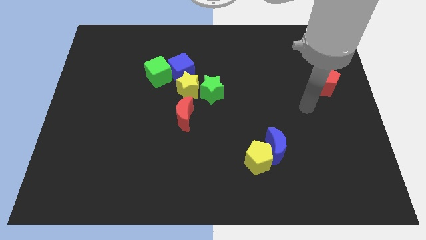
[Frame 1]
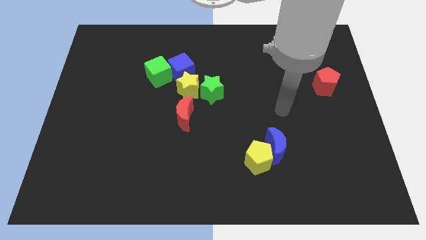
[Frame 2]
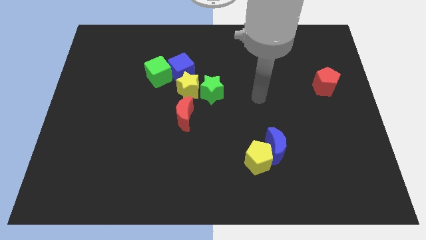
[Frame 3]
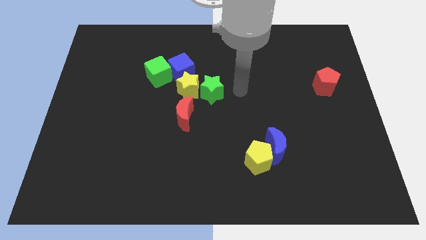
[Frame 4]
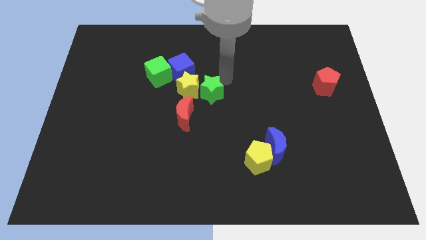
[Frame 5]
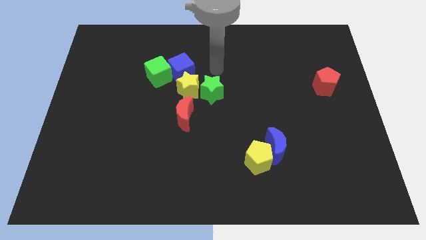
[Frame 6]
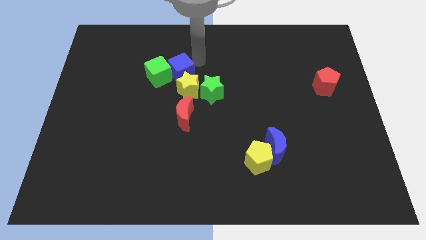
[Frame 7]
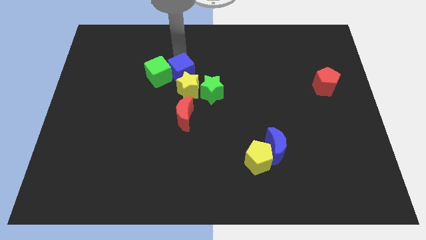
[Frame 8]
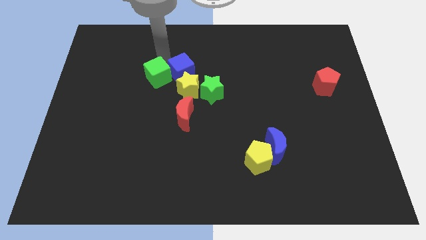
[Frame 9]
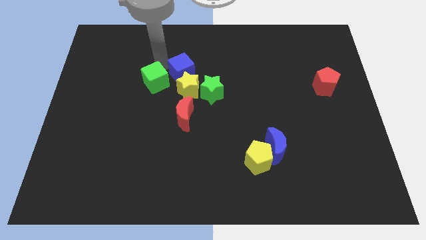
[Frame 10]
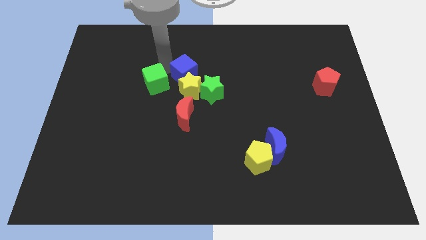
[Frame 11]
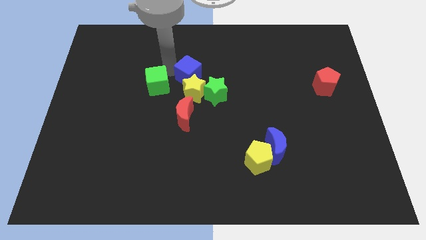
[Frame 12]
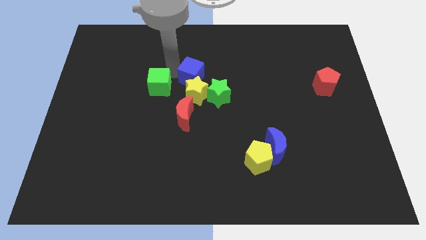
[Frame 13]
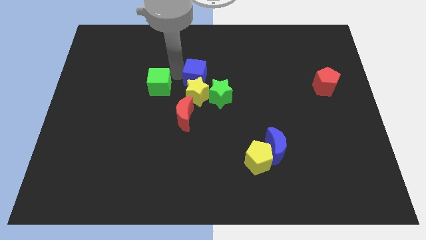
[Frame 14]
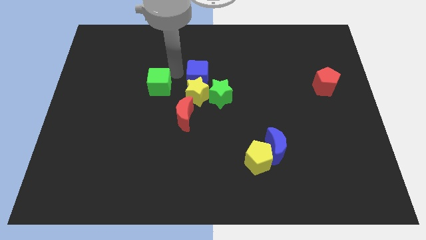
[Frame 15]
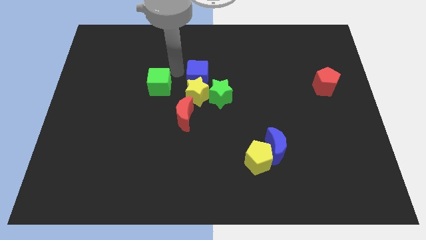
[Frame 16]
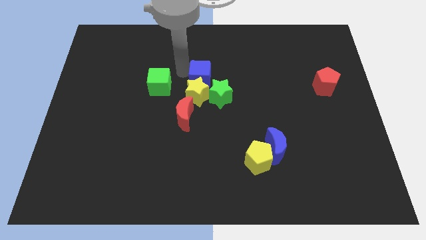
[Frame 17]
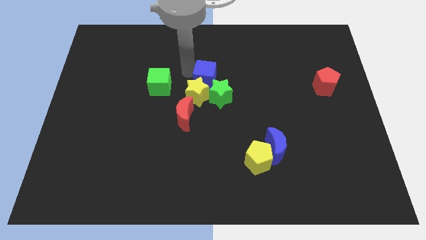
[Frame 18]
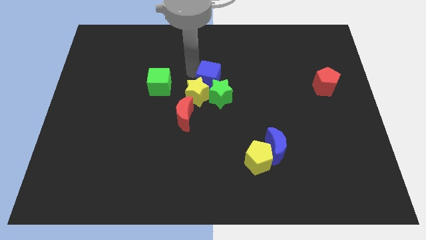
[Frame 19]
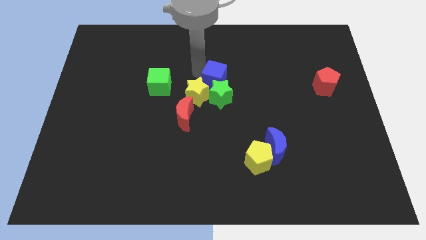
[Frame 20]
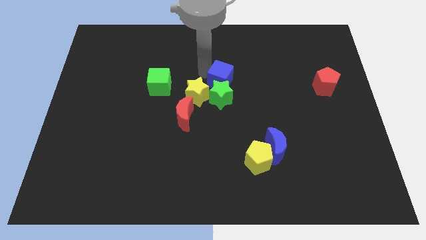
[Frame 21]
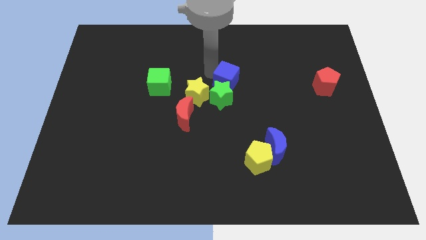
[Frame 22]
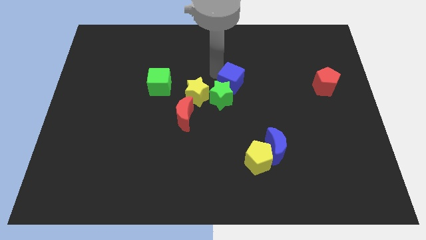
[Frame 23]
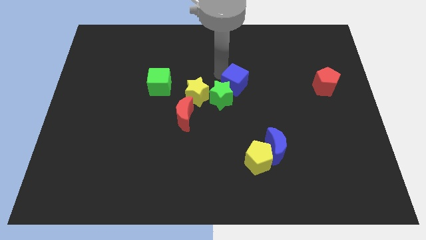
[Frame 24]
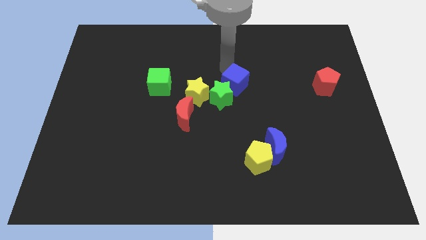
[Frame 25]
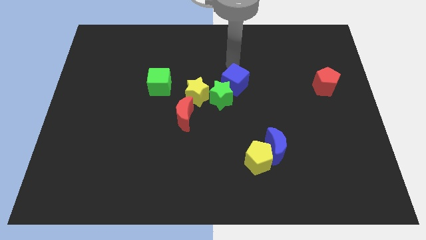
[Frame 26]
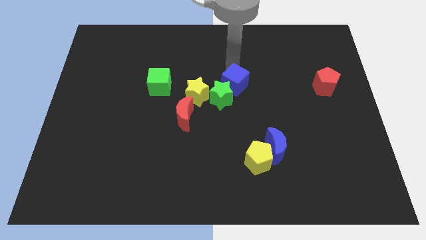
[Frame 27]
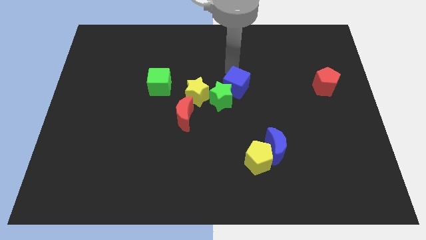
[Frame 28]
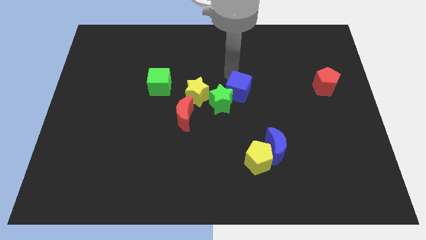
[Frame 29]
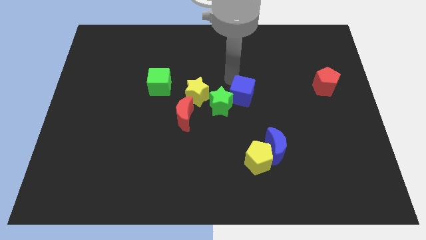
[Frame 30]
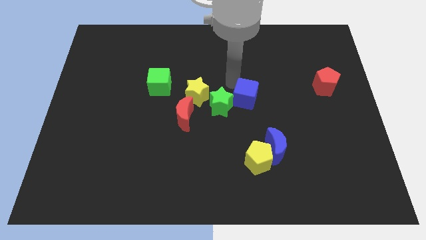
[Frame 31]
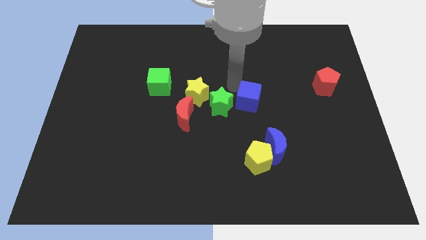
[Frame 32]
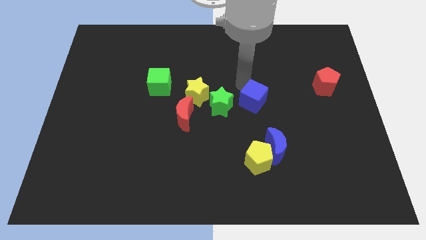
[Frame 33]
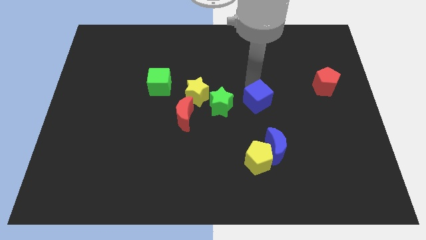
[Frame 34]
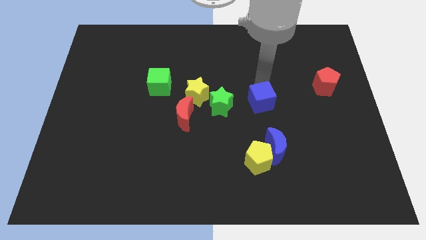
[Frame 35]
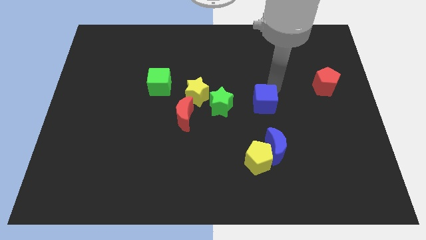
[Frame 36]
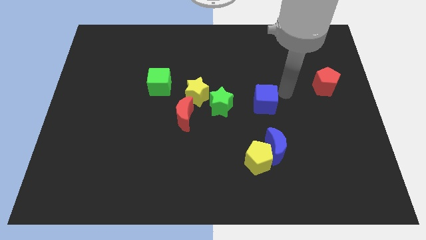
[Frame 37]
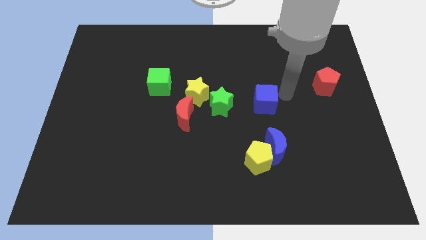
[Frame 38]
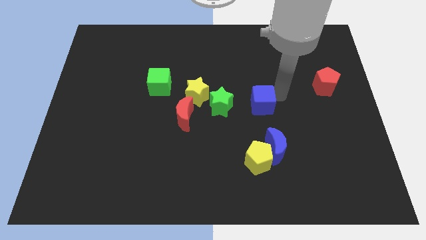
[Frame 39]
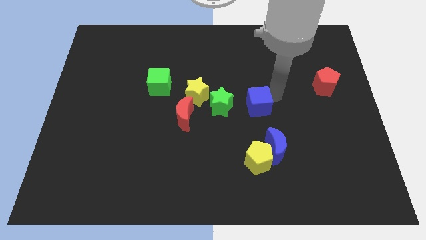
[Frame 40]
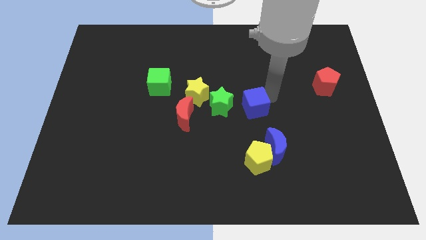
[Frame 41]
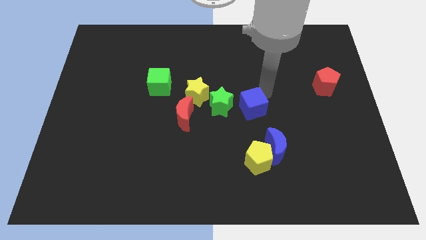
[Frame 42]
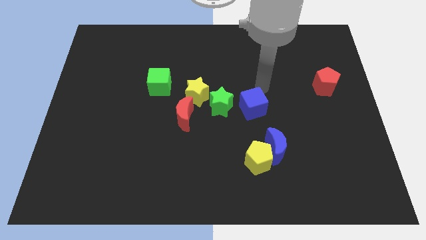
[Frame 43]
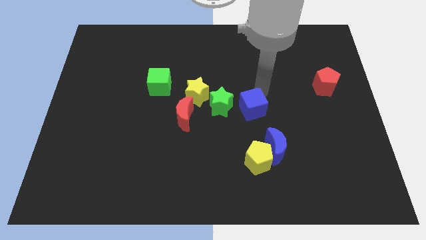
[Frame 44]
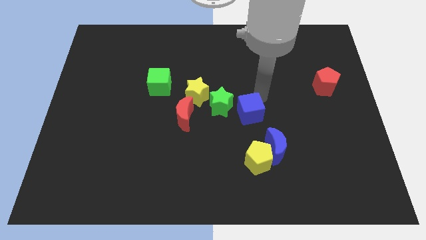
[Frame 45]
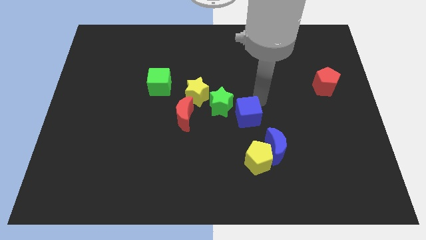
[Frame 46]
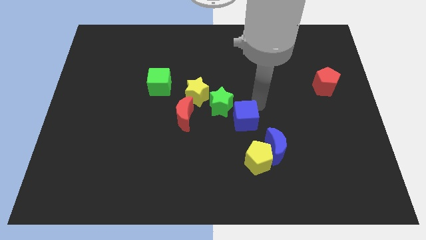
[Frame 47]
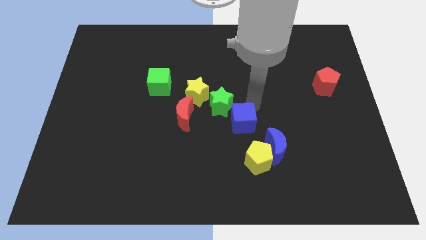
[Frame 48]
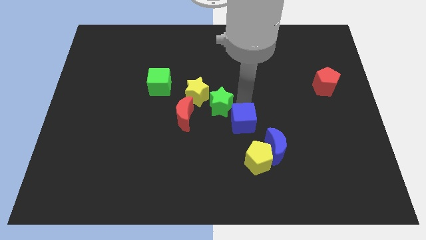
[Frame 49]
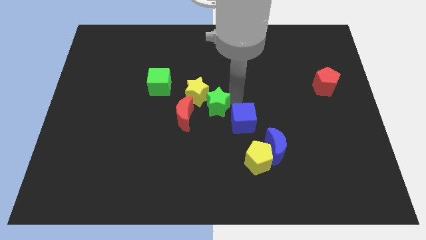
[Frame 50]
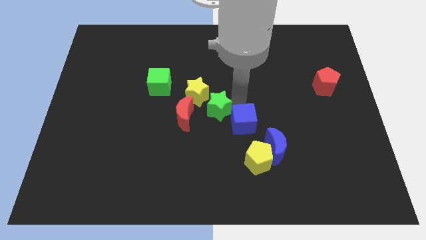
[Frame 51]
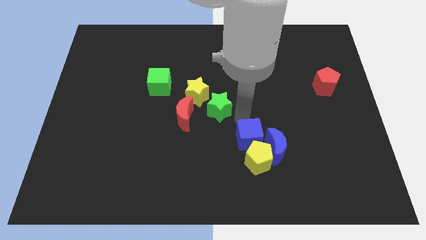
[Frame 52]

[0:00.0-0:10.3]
push the blue cube to the yellow pentagon

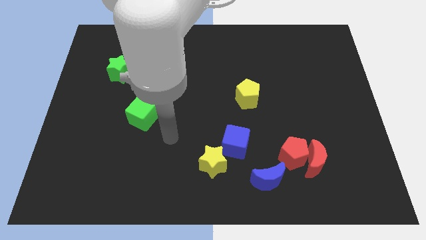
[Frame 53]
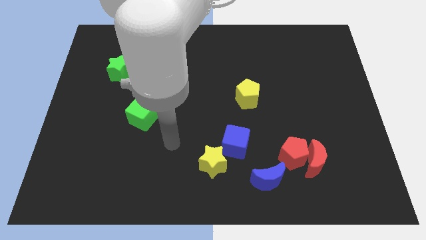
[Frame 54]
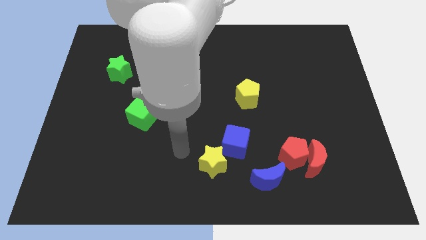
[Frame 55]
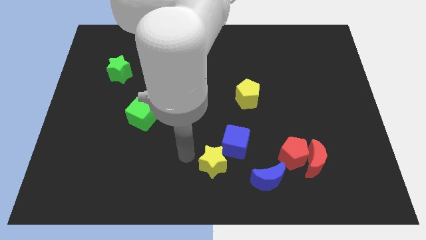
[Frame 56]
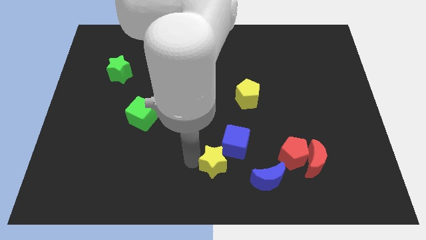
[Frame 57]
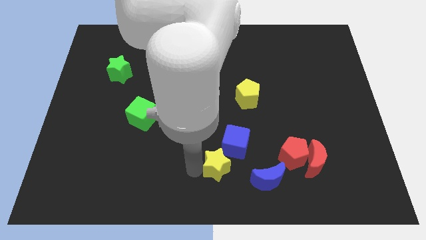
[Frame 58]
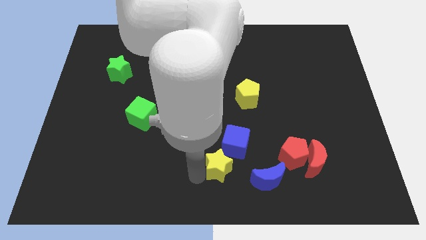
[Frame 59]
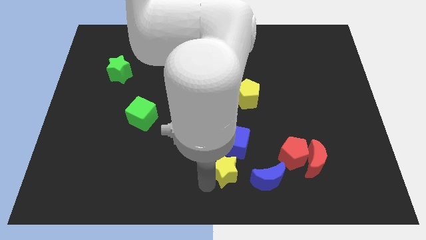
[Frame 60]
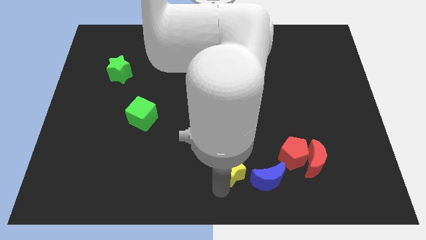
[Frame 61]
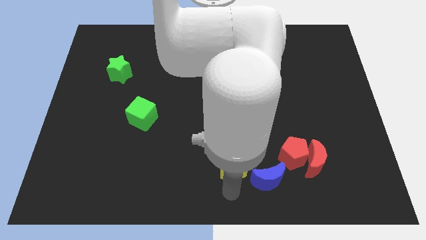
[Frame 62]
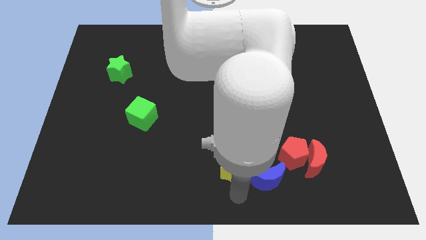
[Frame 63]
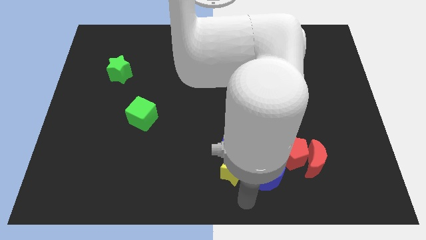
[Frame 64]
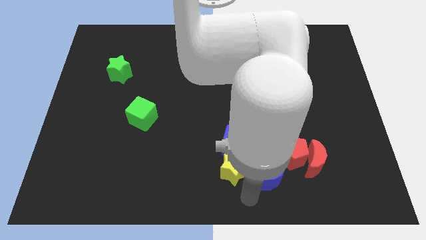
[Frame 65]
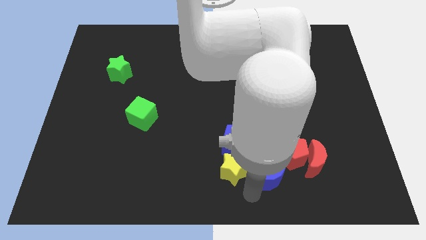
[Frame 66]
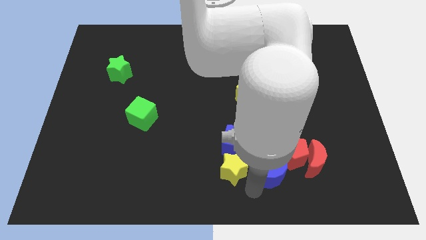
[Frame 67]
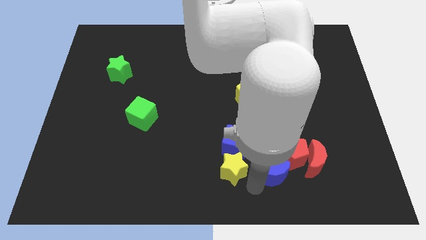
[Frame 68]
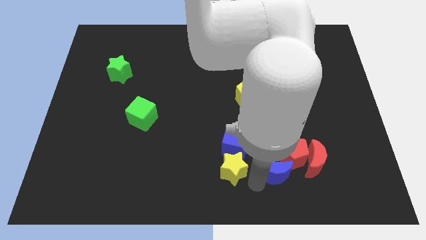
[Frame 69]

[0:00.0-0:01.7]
push the blue moon close to the red pentagon

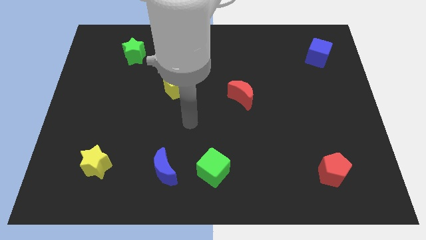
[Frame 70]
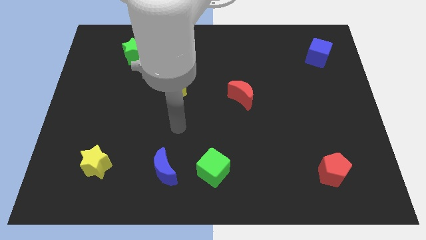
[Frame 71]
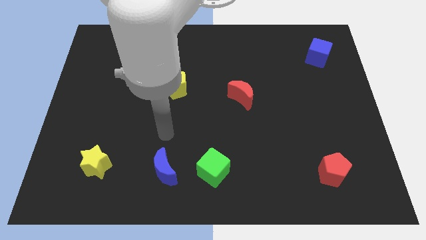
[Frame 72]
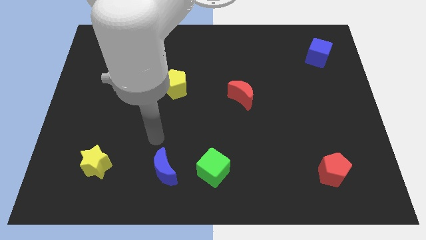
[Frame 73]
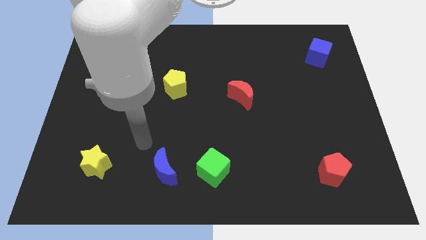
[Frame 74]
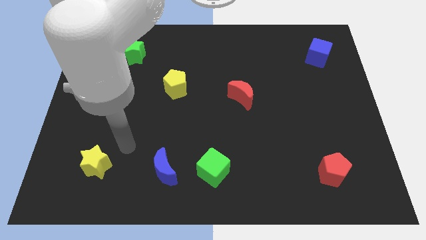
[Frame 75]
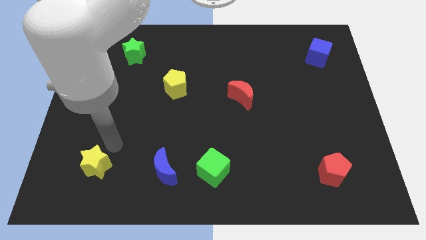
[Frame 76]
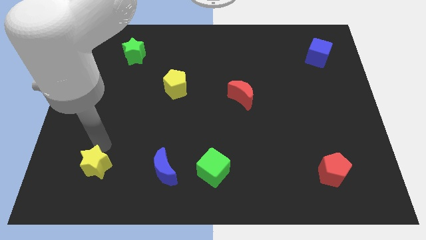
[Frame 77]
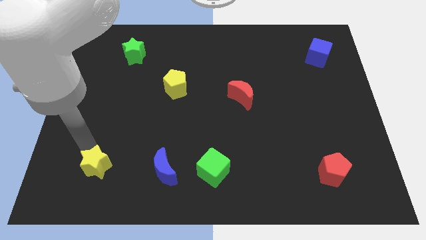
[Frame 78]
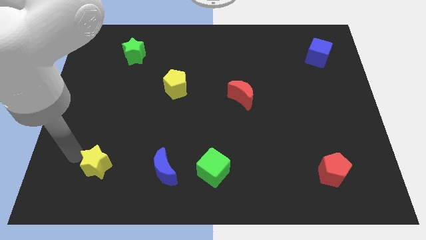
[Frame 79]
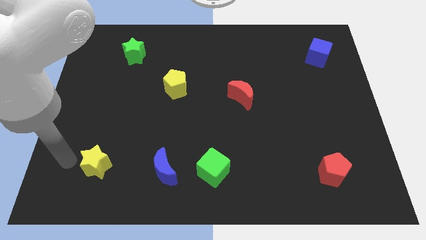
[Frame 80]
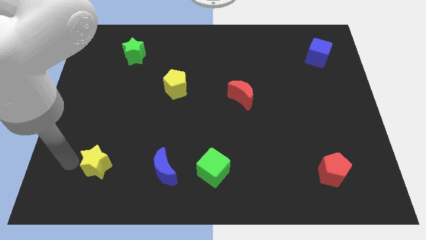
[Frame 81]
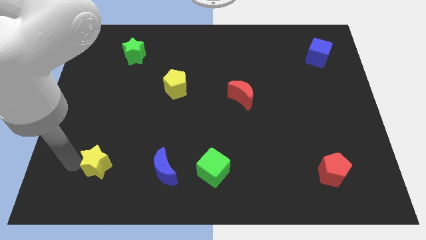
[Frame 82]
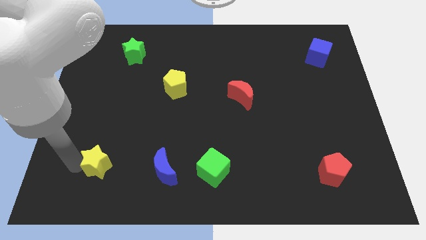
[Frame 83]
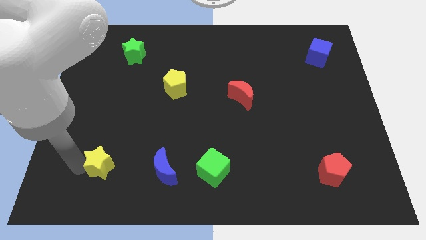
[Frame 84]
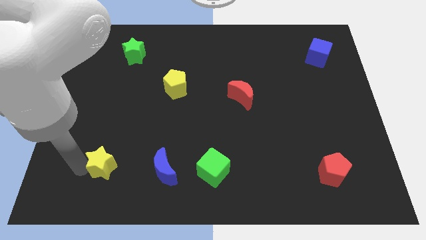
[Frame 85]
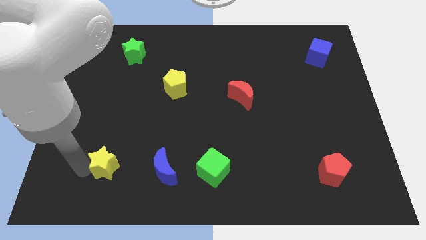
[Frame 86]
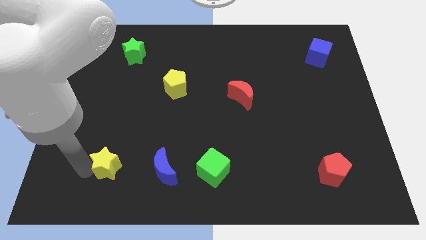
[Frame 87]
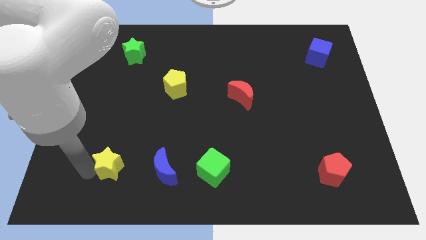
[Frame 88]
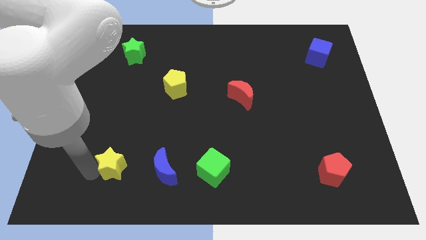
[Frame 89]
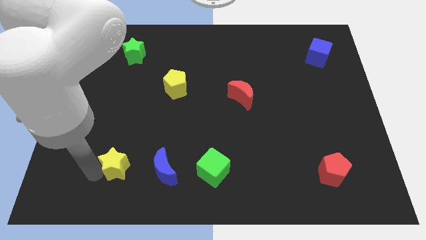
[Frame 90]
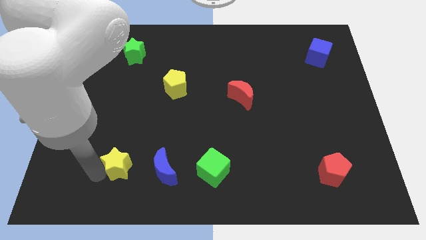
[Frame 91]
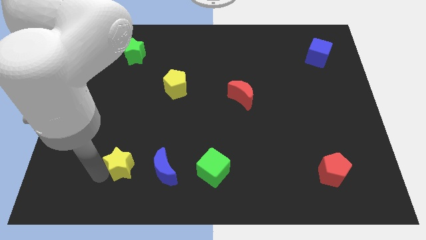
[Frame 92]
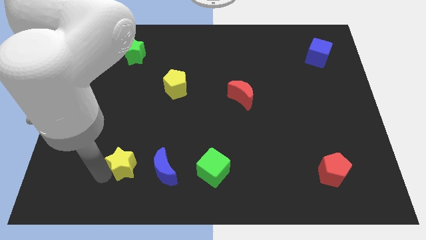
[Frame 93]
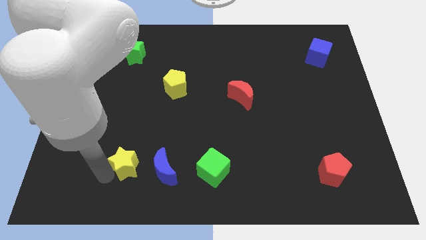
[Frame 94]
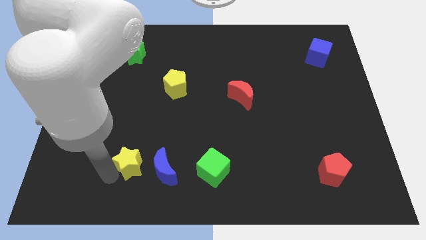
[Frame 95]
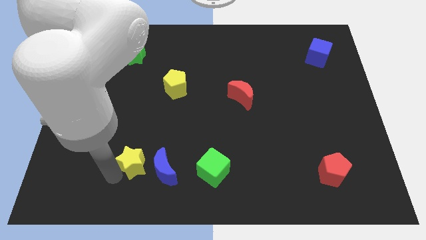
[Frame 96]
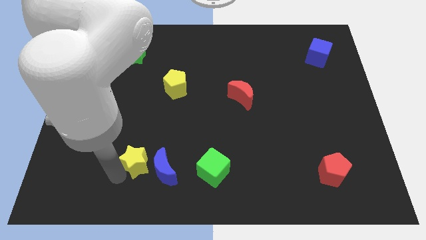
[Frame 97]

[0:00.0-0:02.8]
put the yellow star next to the blue moon
